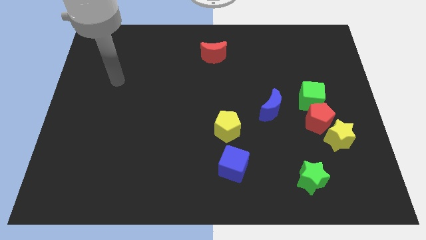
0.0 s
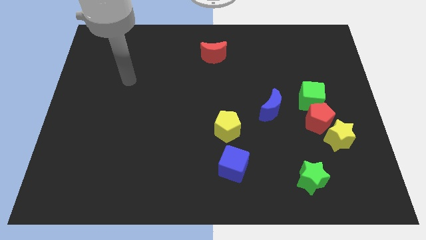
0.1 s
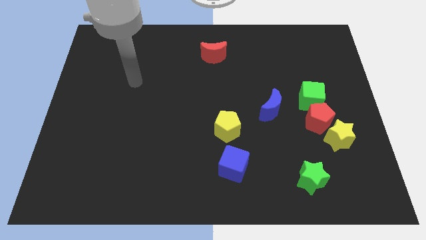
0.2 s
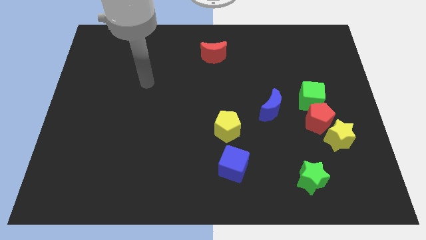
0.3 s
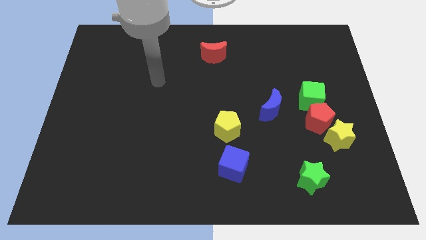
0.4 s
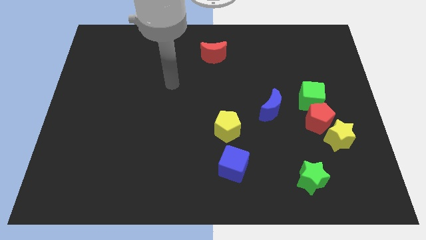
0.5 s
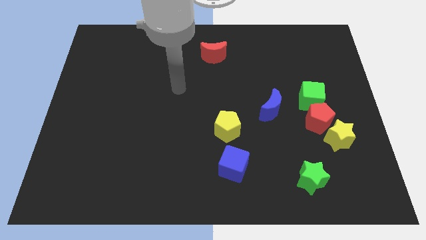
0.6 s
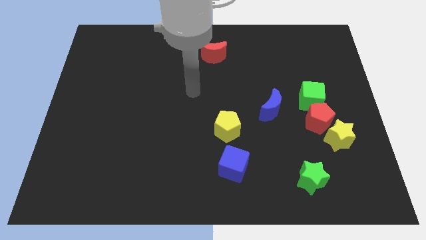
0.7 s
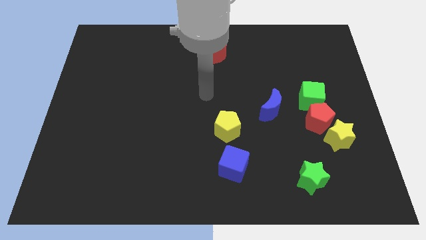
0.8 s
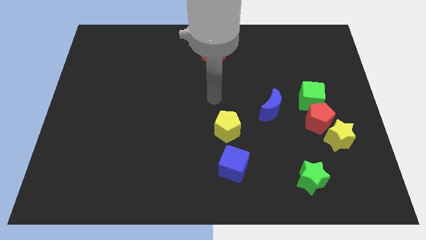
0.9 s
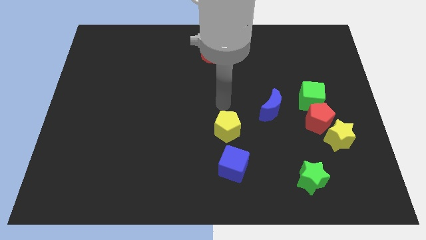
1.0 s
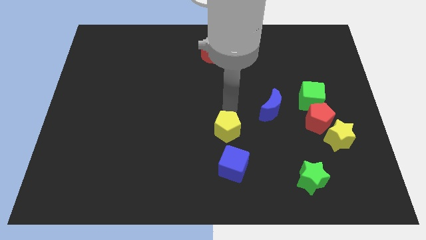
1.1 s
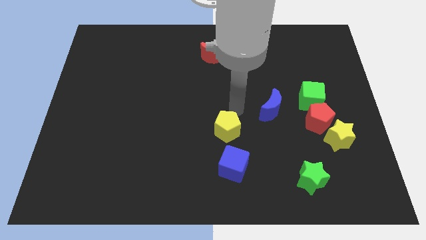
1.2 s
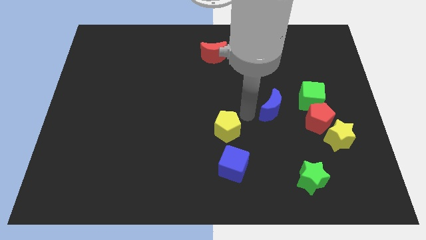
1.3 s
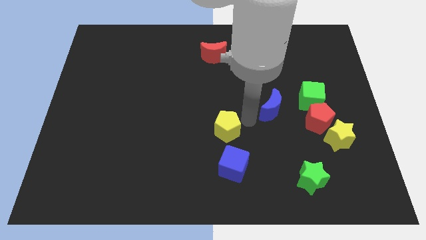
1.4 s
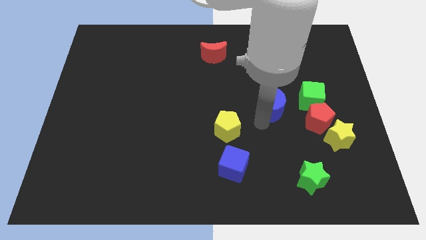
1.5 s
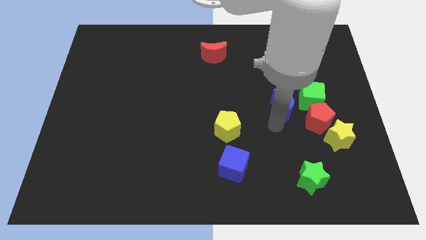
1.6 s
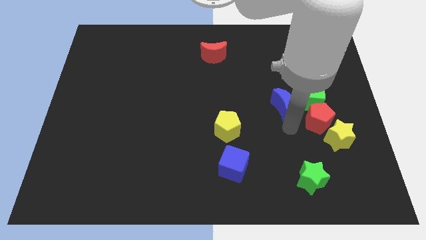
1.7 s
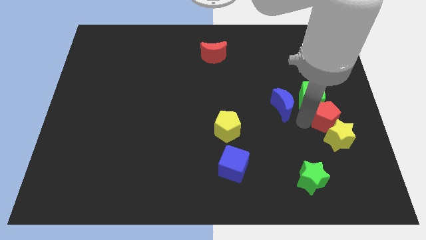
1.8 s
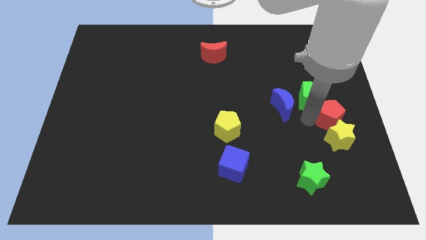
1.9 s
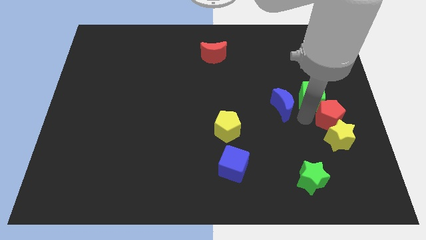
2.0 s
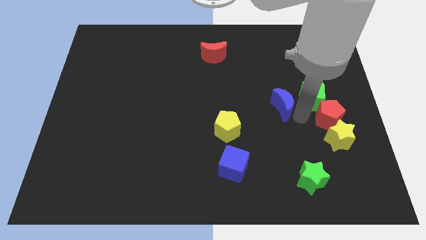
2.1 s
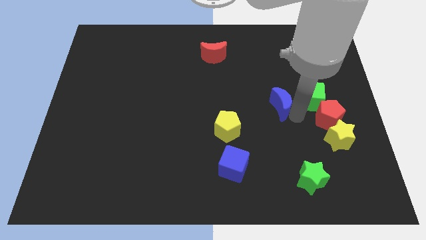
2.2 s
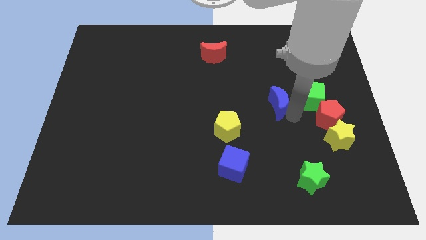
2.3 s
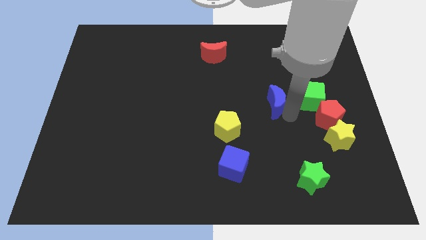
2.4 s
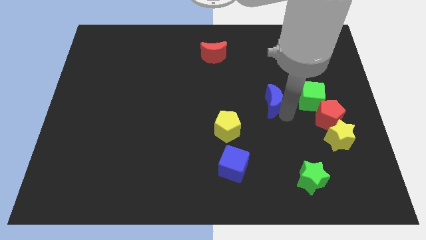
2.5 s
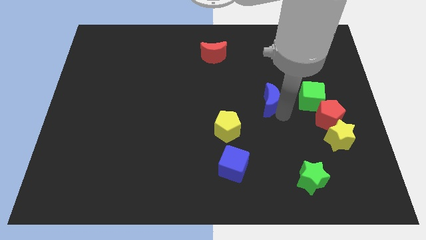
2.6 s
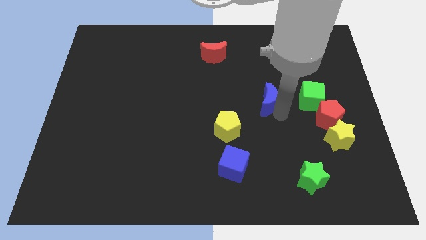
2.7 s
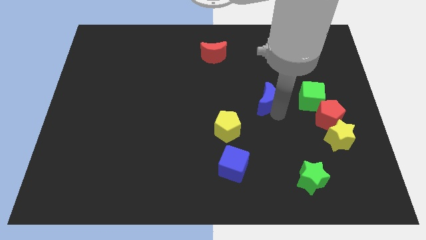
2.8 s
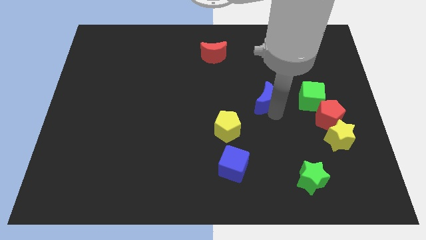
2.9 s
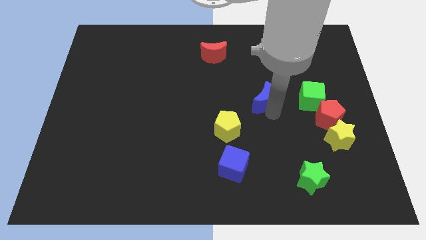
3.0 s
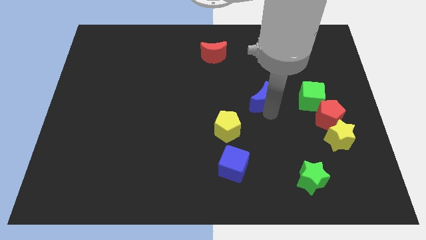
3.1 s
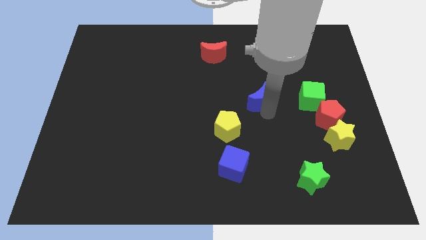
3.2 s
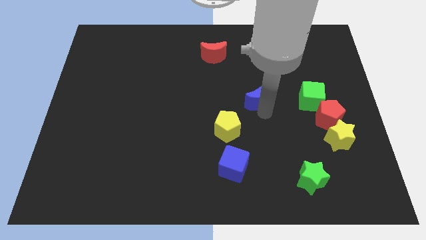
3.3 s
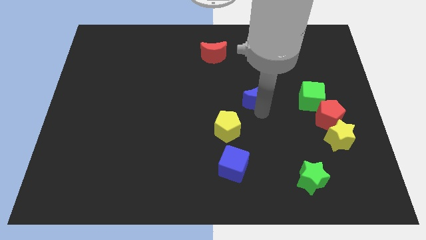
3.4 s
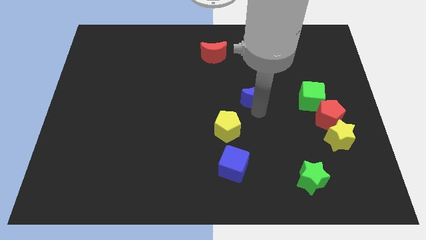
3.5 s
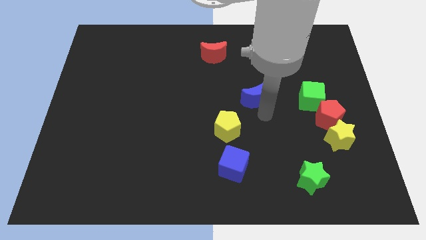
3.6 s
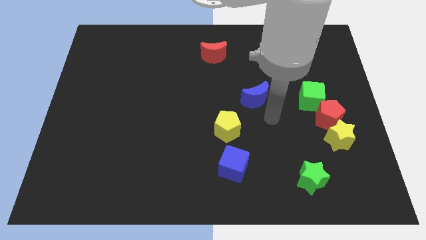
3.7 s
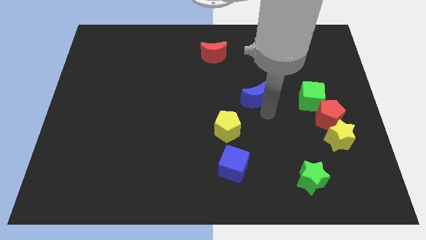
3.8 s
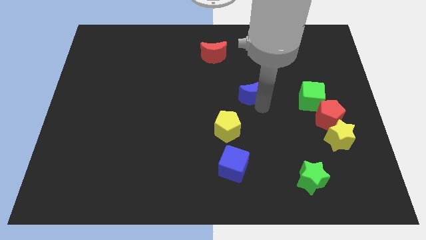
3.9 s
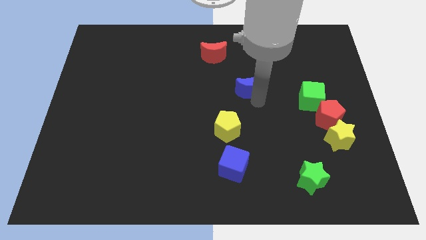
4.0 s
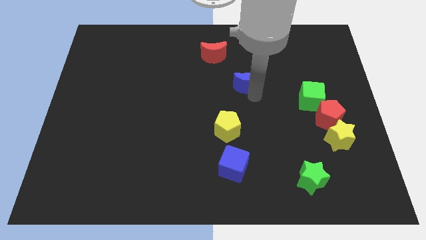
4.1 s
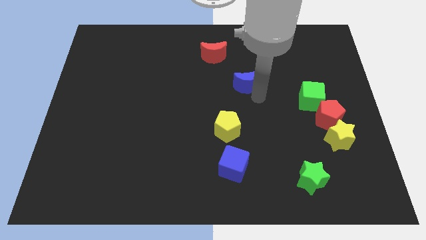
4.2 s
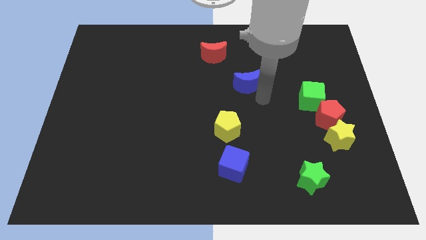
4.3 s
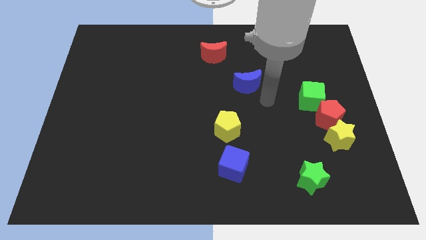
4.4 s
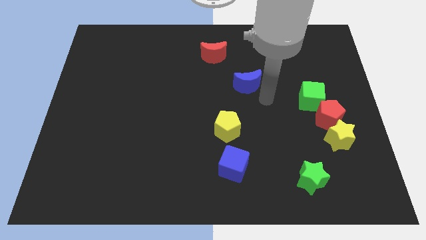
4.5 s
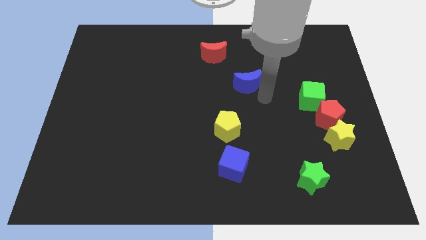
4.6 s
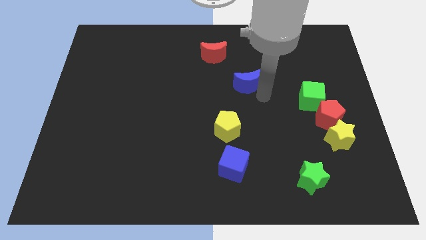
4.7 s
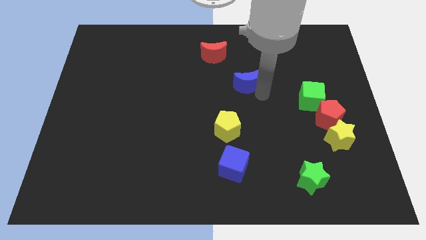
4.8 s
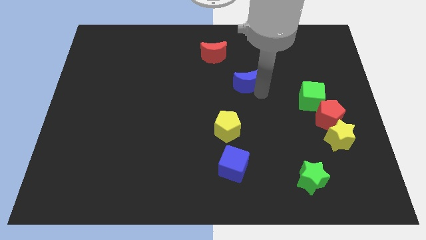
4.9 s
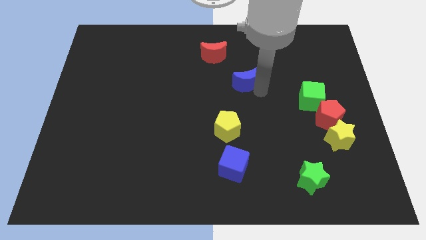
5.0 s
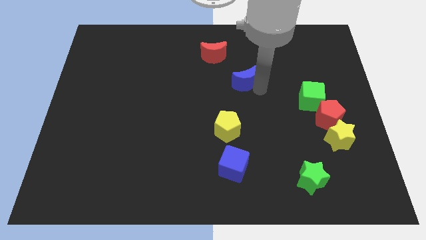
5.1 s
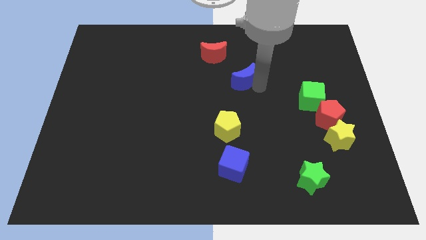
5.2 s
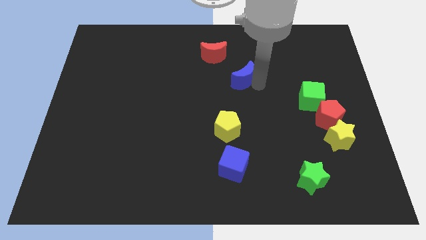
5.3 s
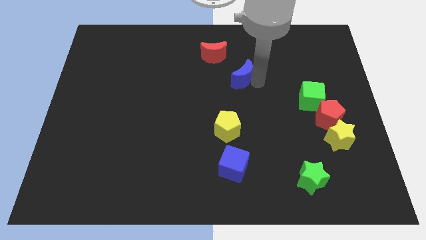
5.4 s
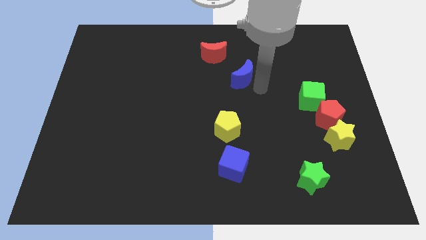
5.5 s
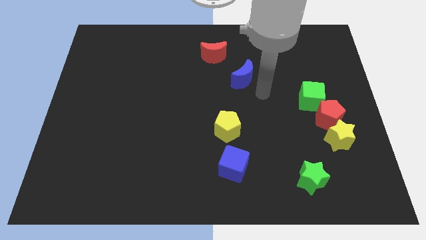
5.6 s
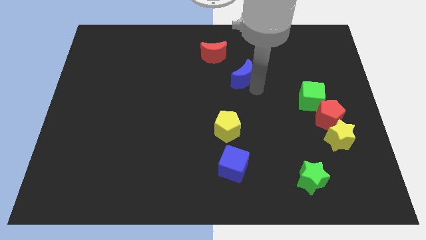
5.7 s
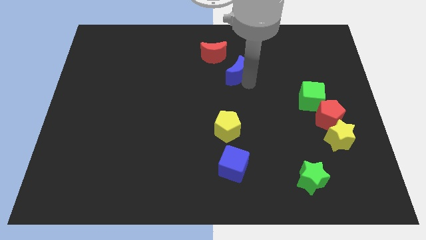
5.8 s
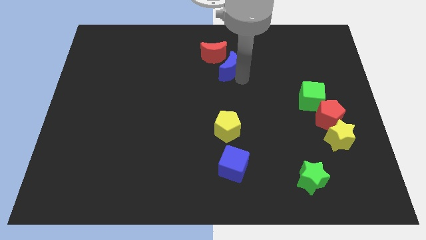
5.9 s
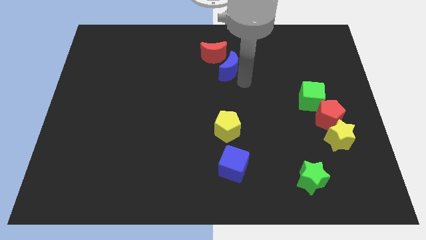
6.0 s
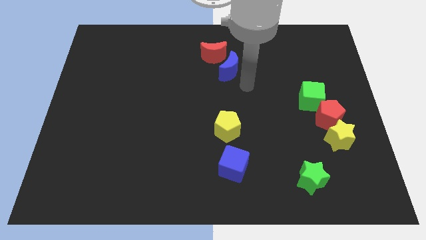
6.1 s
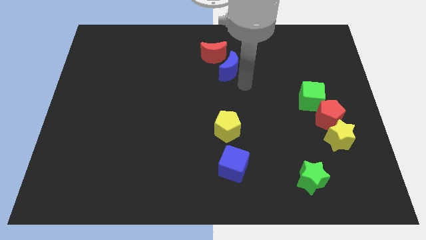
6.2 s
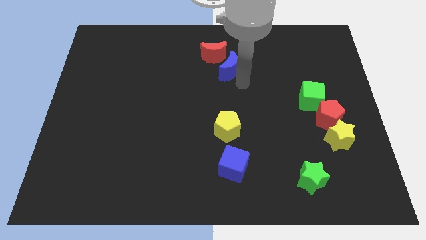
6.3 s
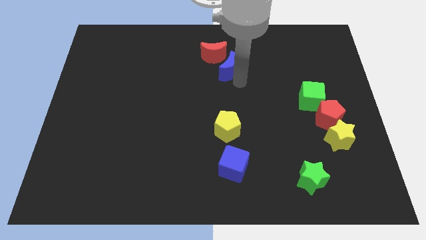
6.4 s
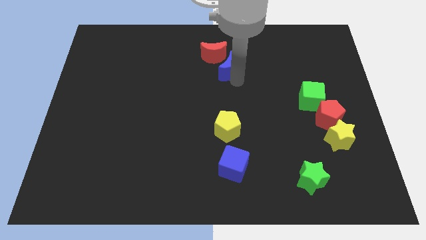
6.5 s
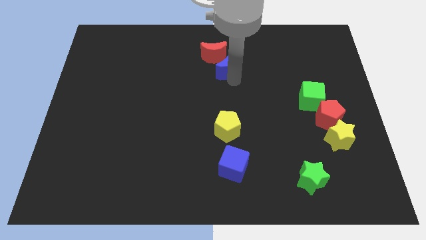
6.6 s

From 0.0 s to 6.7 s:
slide the blue moon towards the red moon
